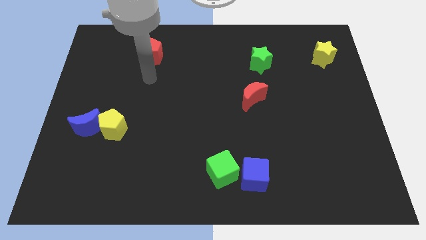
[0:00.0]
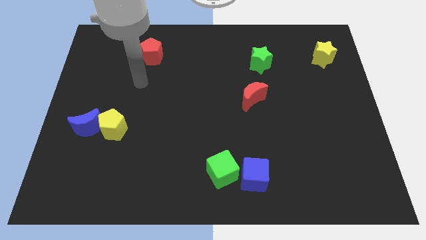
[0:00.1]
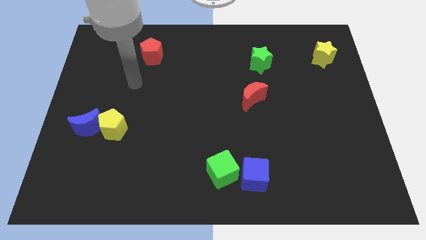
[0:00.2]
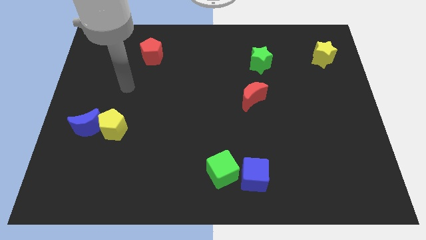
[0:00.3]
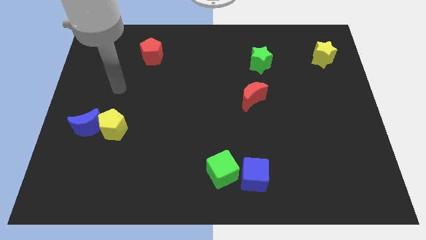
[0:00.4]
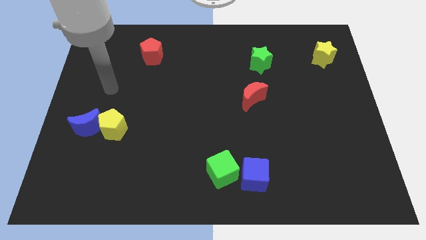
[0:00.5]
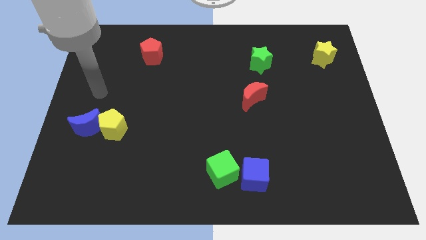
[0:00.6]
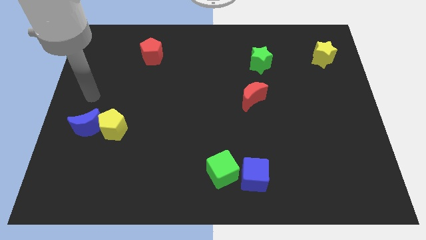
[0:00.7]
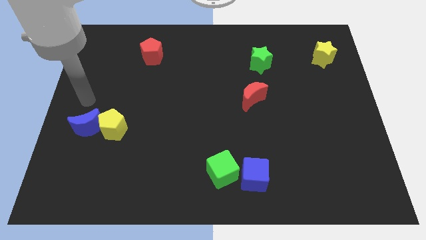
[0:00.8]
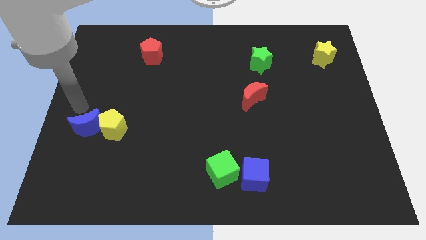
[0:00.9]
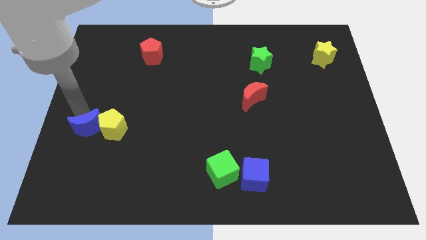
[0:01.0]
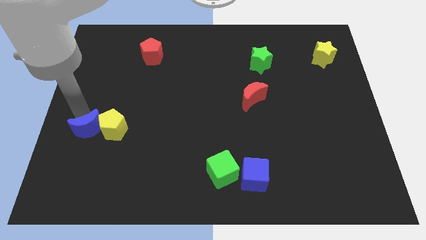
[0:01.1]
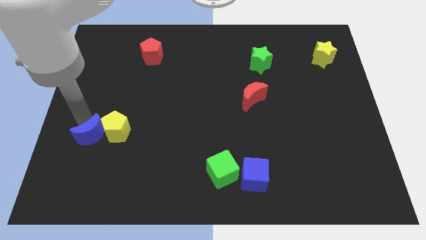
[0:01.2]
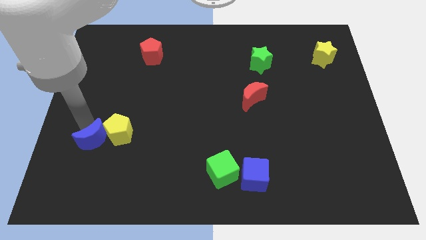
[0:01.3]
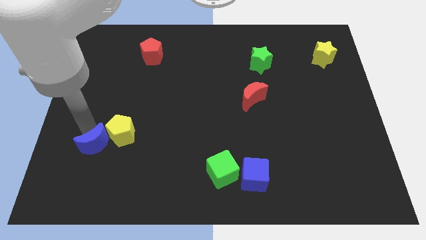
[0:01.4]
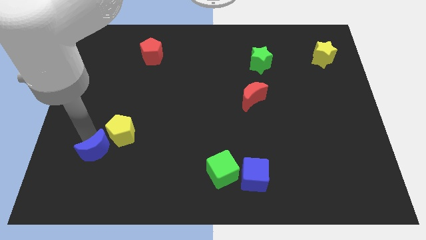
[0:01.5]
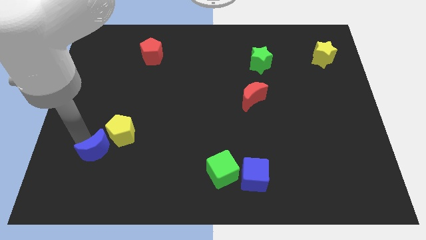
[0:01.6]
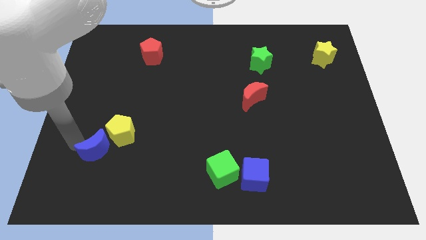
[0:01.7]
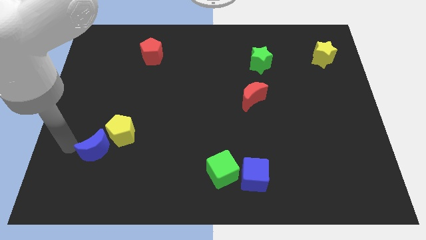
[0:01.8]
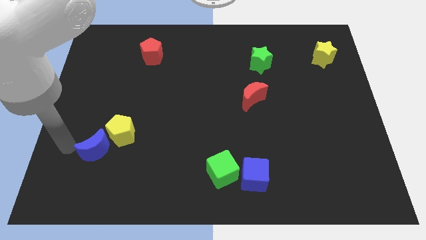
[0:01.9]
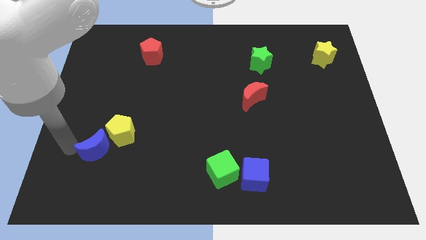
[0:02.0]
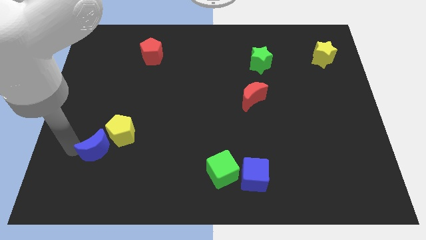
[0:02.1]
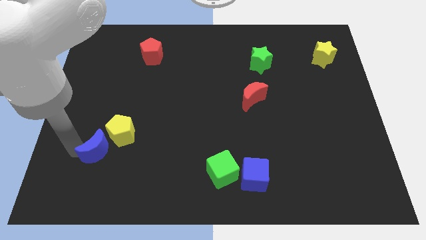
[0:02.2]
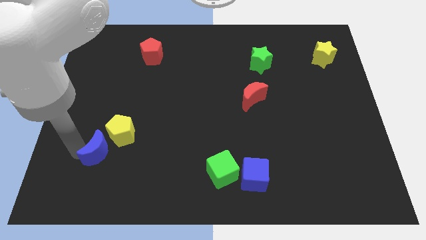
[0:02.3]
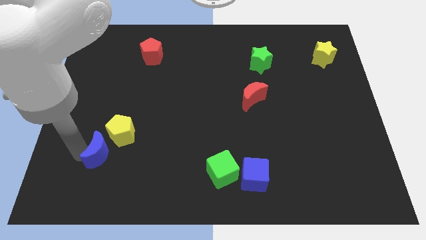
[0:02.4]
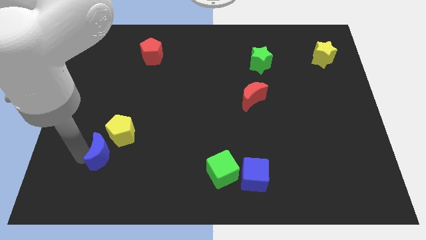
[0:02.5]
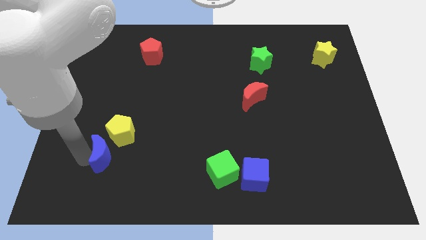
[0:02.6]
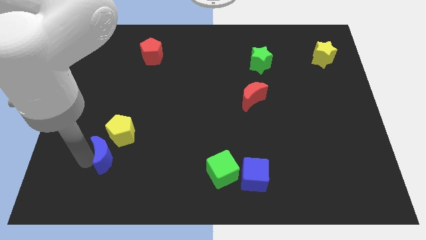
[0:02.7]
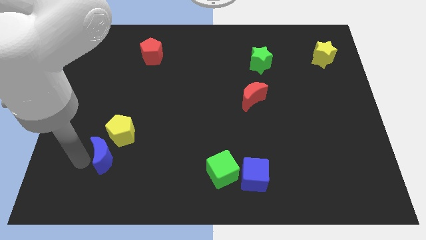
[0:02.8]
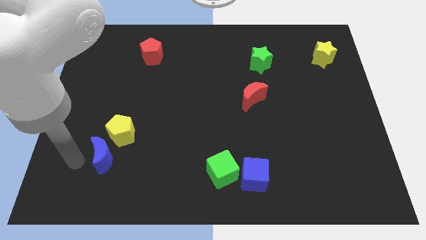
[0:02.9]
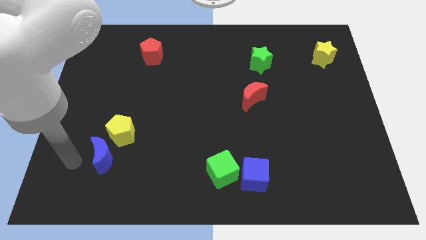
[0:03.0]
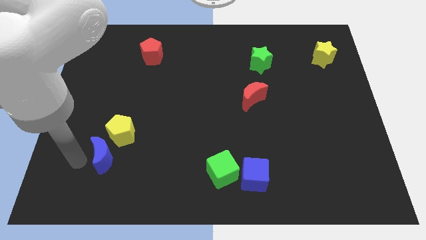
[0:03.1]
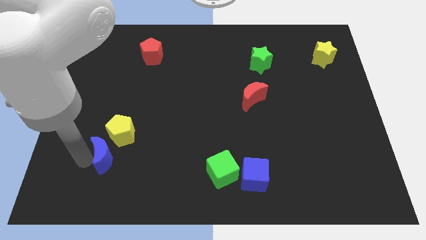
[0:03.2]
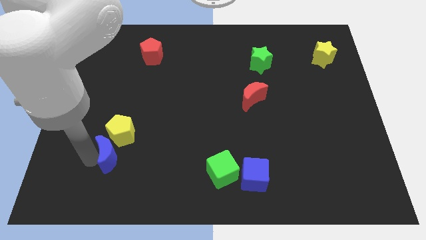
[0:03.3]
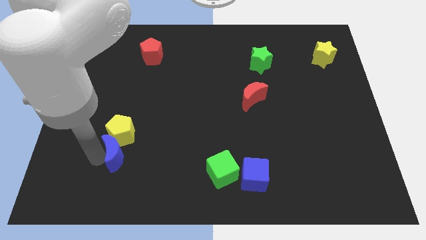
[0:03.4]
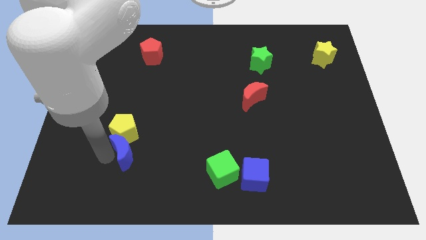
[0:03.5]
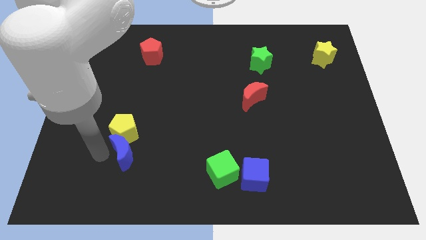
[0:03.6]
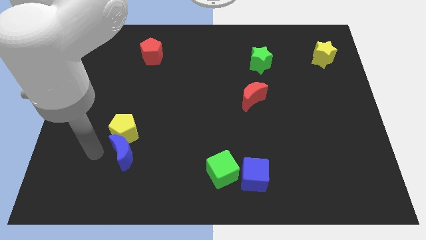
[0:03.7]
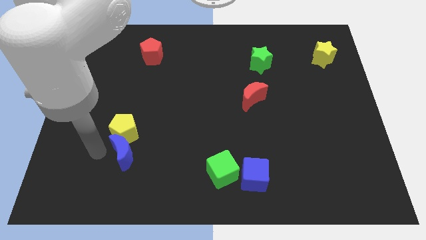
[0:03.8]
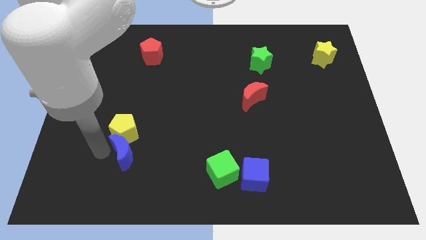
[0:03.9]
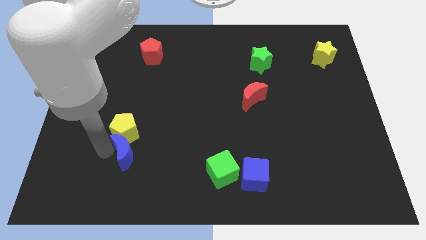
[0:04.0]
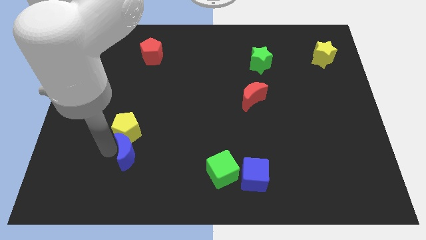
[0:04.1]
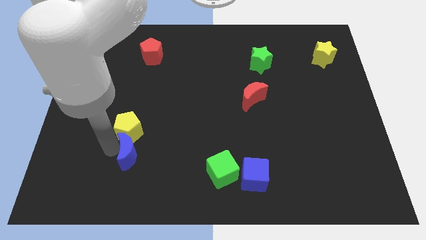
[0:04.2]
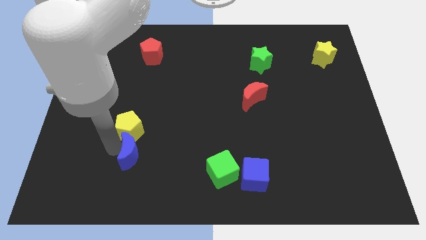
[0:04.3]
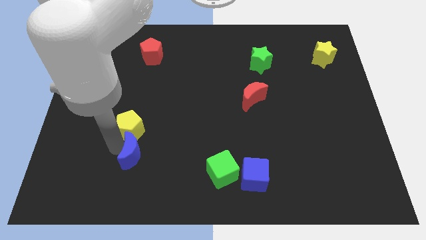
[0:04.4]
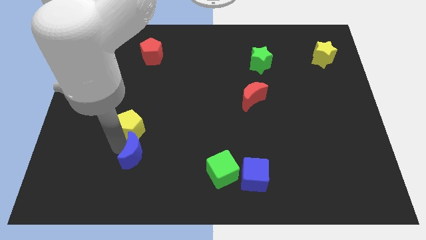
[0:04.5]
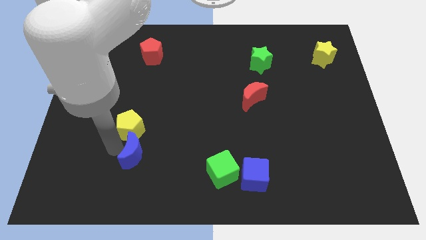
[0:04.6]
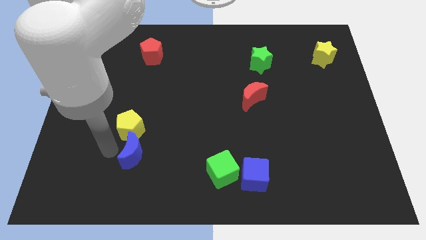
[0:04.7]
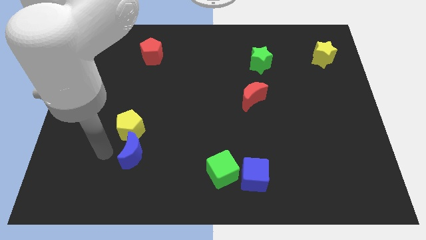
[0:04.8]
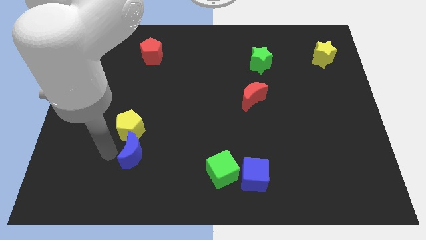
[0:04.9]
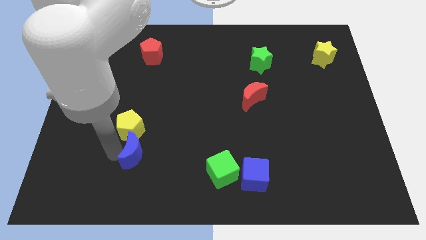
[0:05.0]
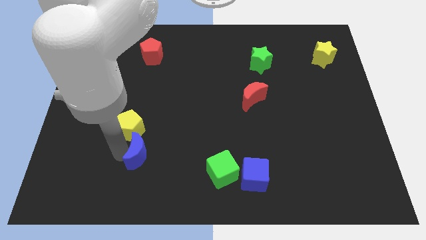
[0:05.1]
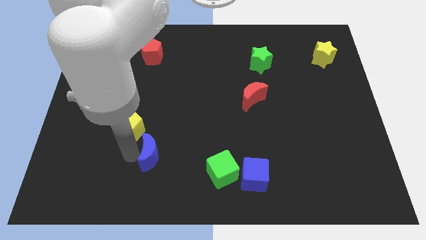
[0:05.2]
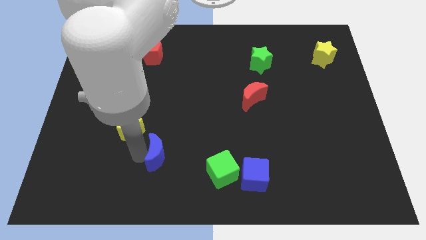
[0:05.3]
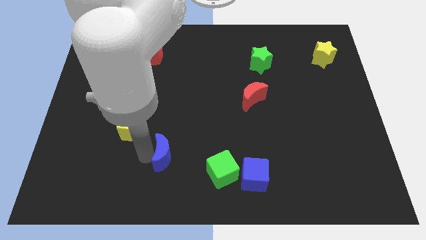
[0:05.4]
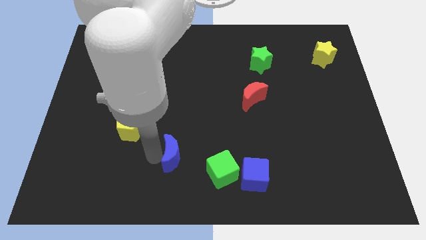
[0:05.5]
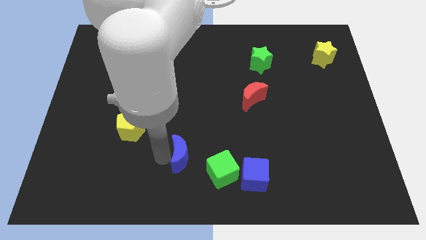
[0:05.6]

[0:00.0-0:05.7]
push the blue moon to the top left side of the green cube

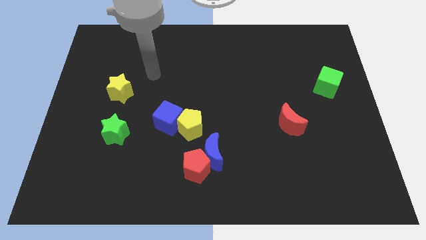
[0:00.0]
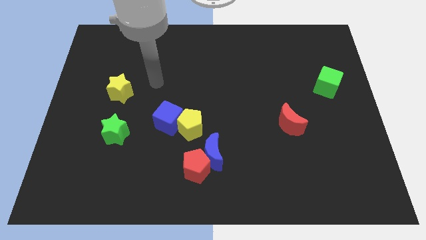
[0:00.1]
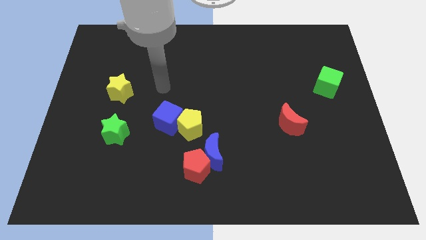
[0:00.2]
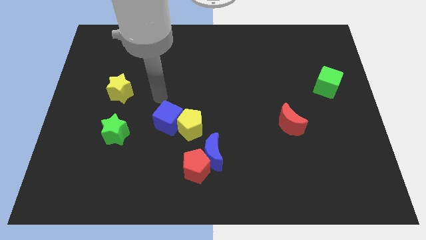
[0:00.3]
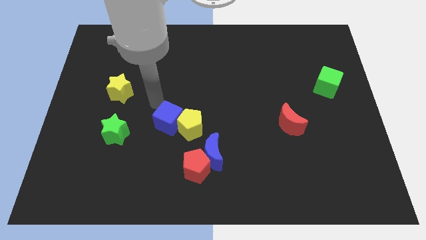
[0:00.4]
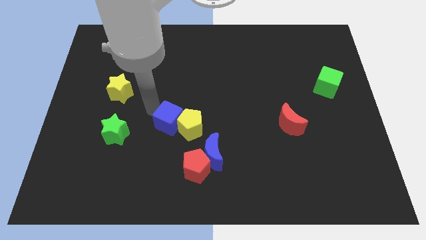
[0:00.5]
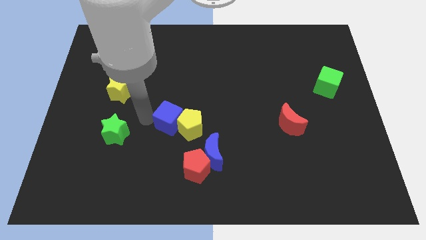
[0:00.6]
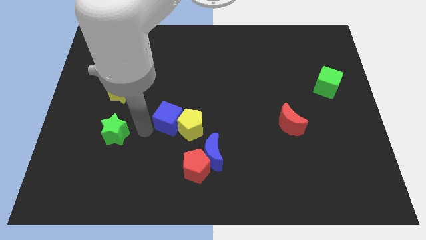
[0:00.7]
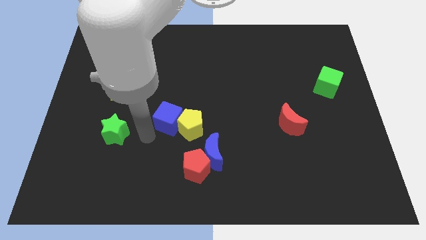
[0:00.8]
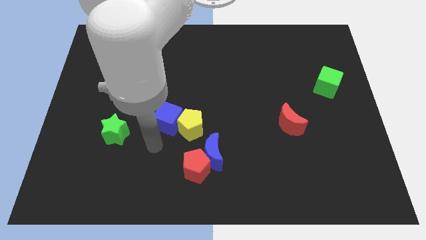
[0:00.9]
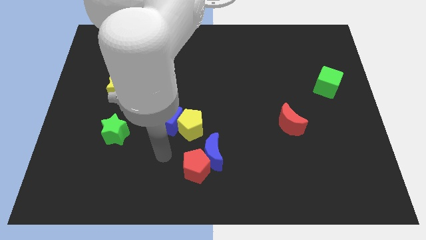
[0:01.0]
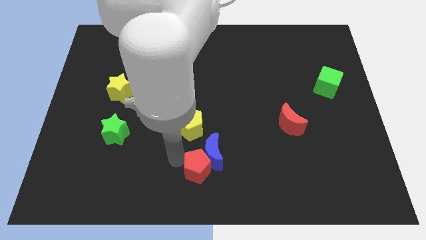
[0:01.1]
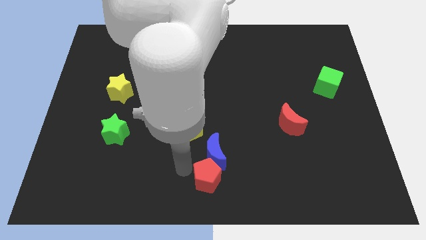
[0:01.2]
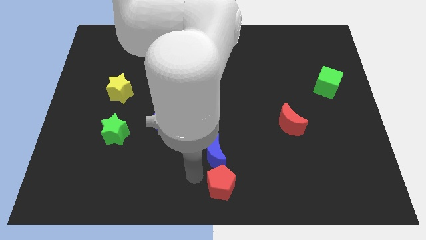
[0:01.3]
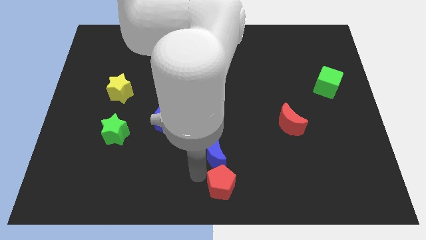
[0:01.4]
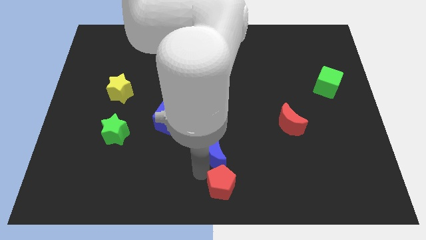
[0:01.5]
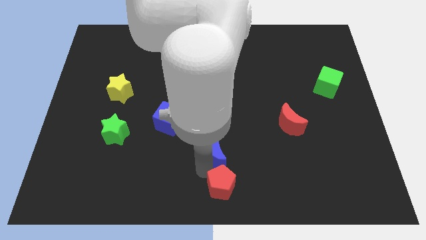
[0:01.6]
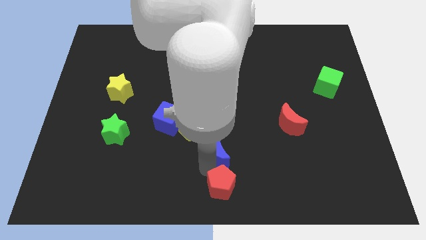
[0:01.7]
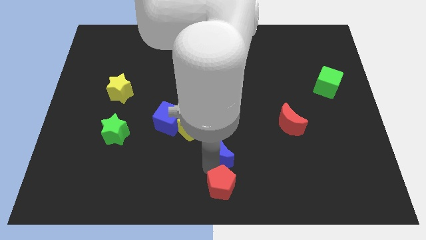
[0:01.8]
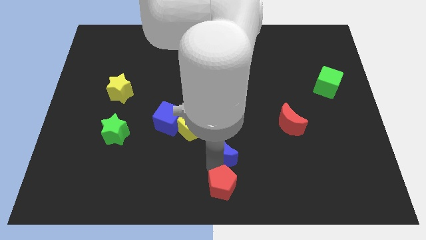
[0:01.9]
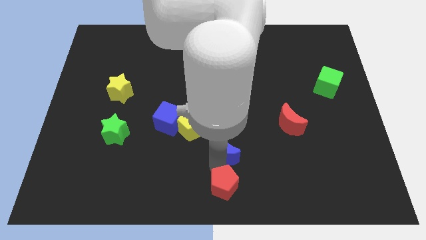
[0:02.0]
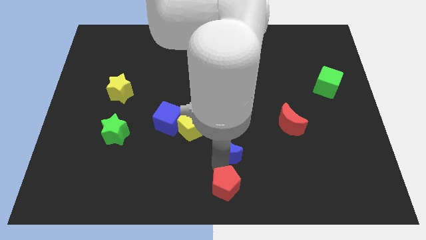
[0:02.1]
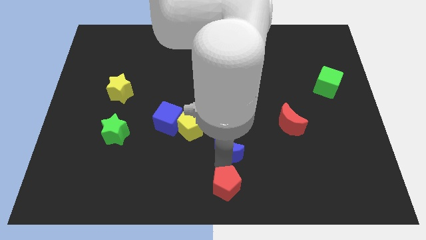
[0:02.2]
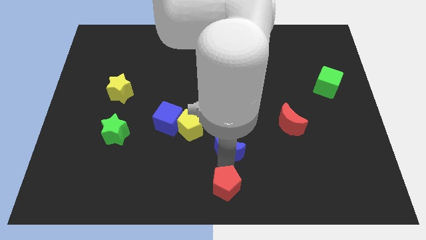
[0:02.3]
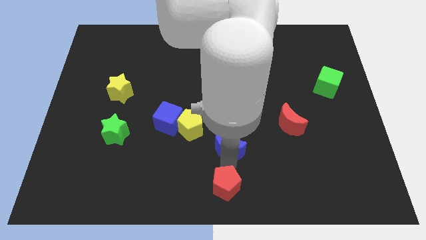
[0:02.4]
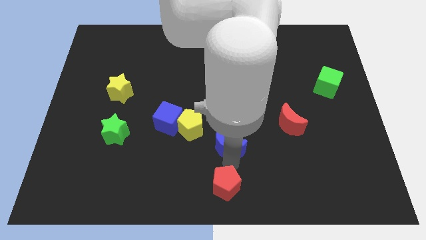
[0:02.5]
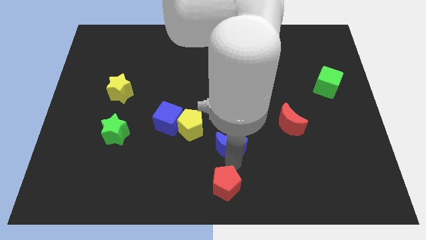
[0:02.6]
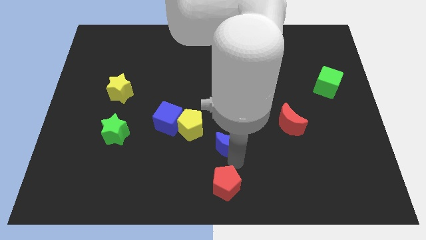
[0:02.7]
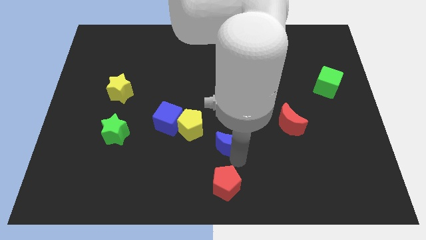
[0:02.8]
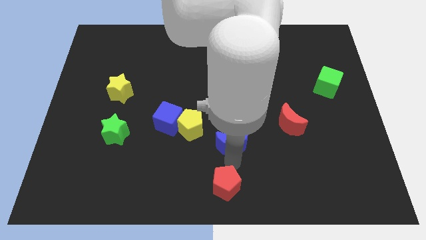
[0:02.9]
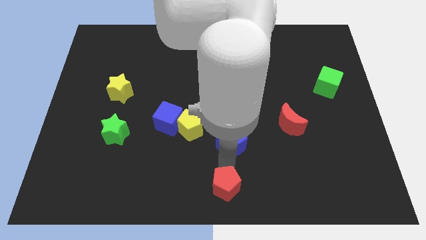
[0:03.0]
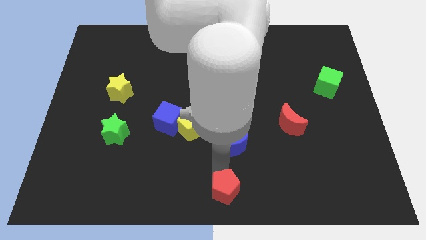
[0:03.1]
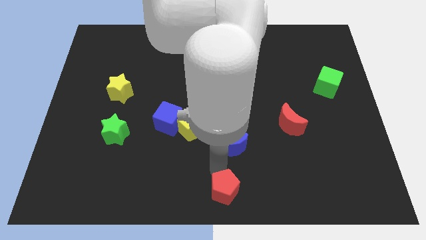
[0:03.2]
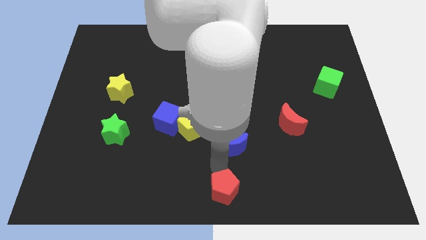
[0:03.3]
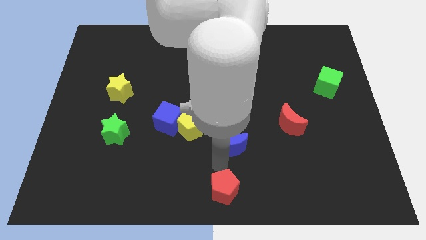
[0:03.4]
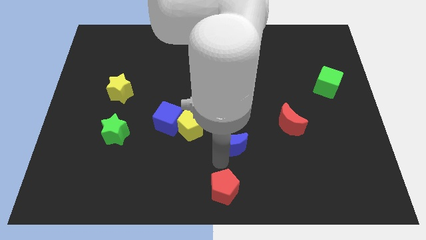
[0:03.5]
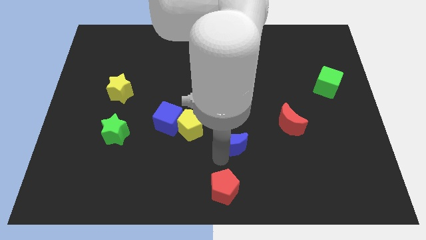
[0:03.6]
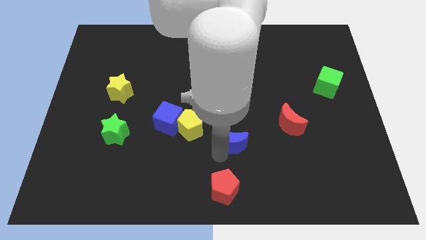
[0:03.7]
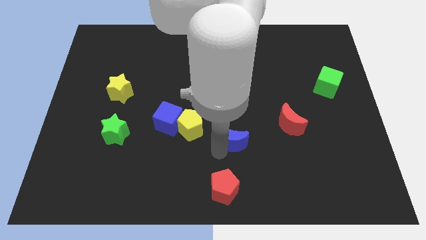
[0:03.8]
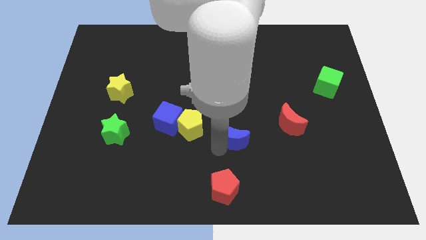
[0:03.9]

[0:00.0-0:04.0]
put the blue moon left of the red moon
